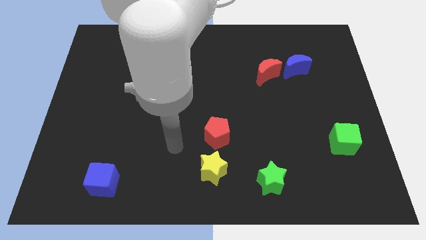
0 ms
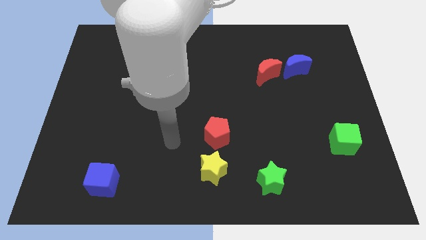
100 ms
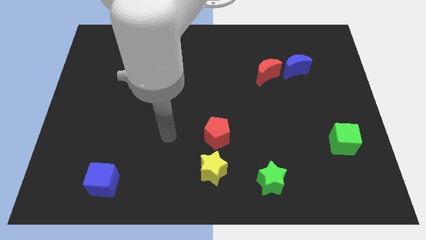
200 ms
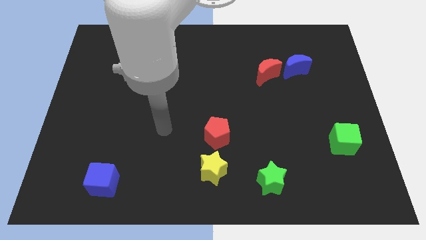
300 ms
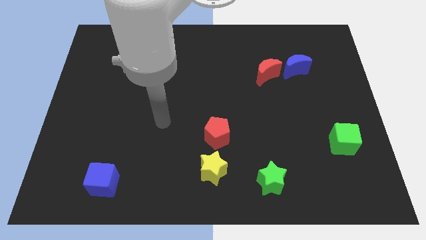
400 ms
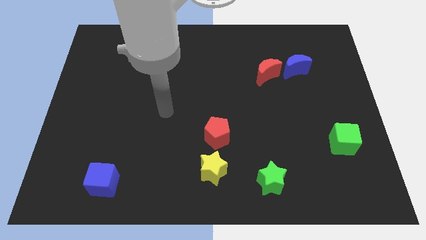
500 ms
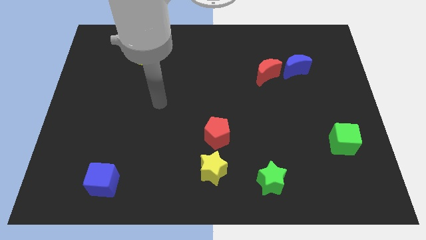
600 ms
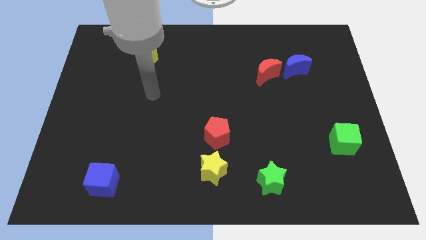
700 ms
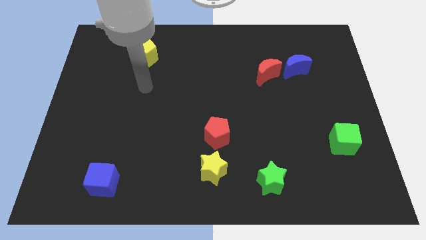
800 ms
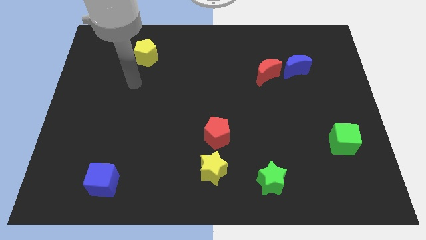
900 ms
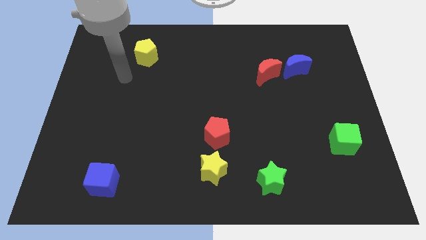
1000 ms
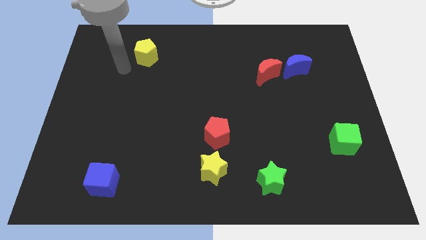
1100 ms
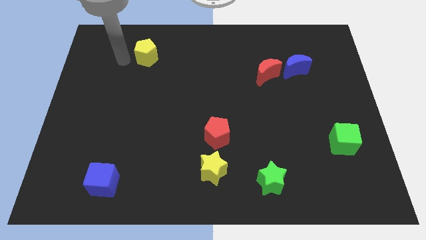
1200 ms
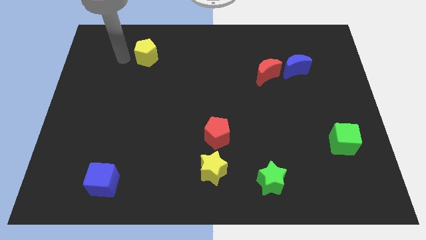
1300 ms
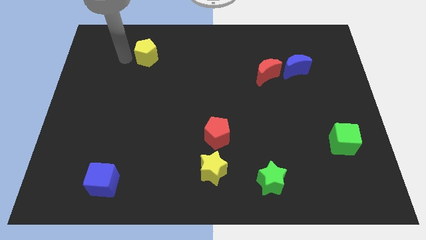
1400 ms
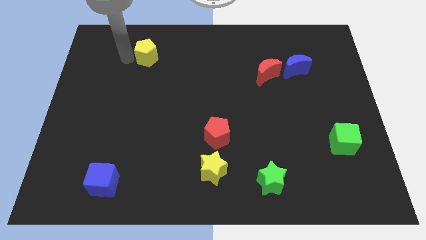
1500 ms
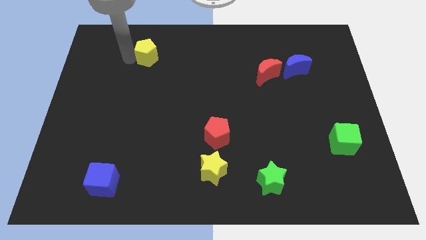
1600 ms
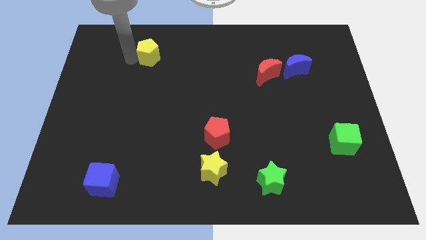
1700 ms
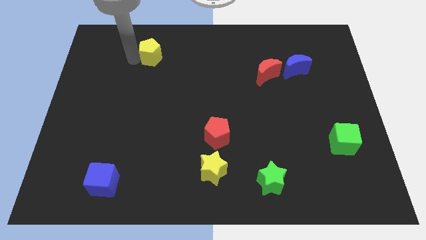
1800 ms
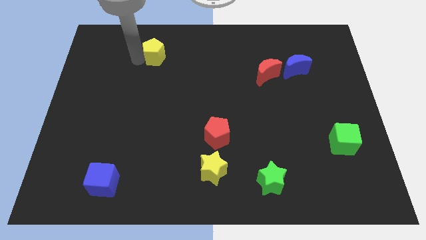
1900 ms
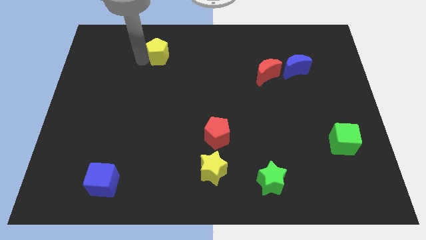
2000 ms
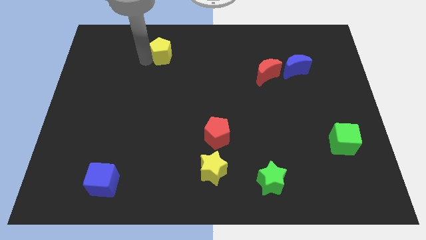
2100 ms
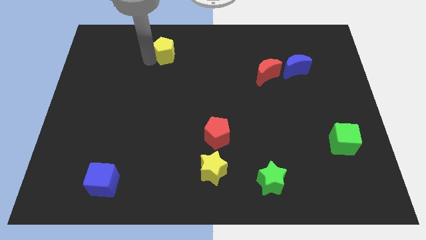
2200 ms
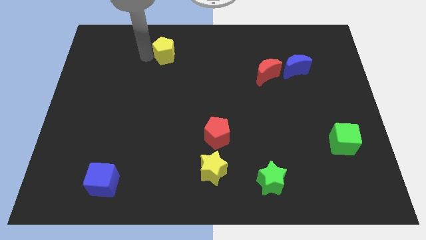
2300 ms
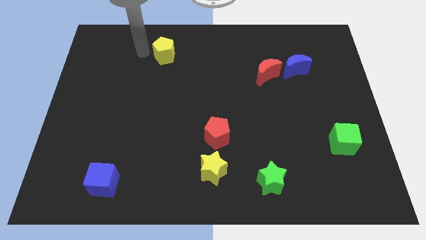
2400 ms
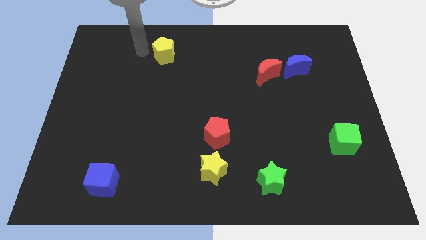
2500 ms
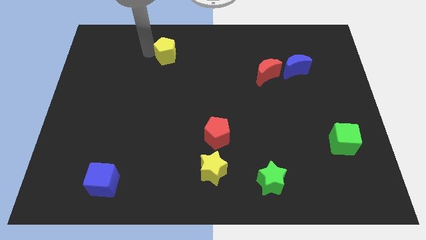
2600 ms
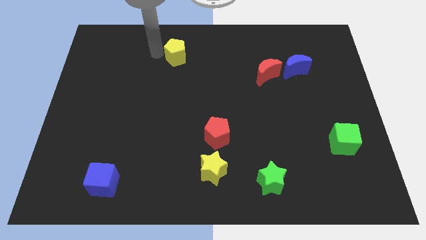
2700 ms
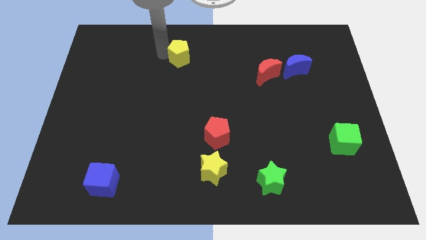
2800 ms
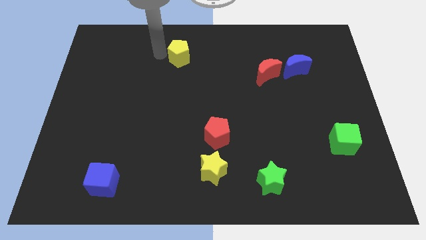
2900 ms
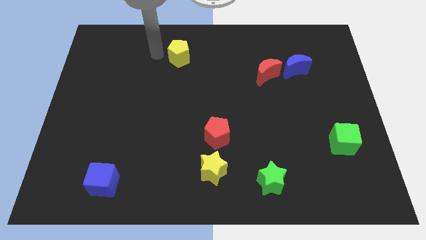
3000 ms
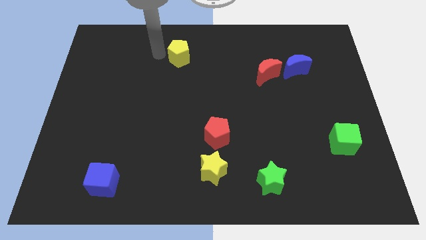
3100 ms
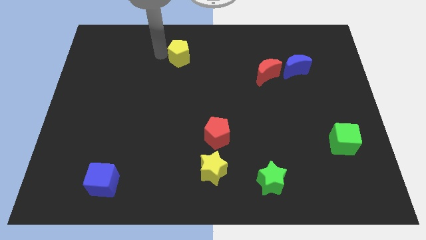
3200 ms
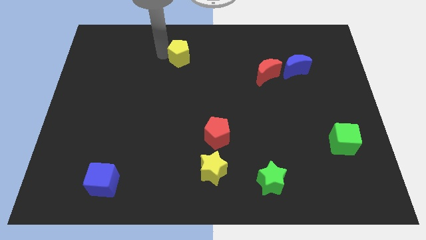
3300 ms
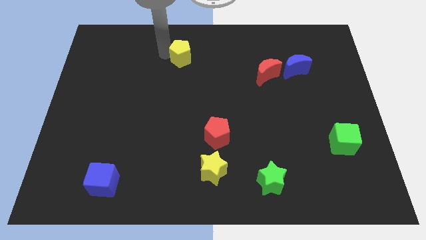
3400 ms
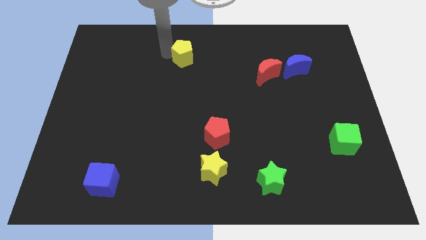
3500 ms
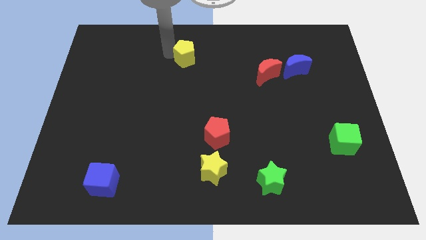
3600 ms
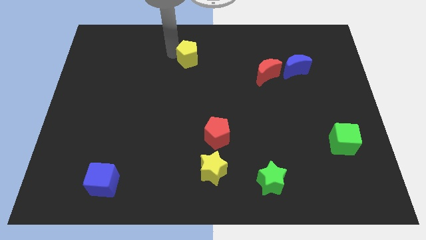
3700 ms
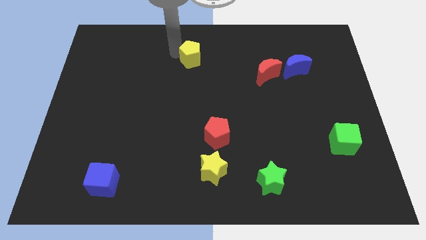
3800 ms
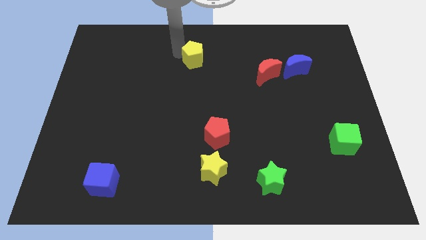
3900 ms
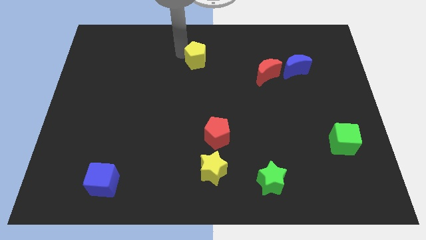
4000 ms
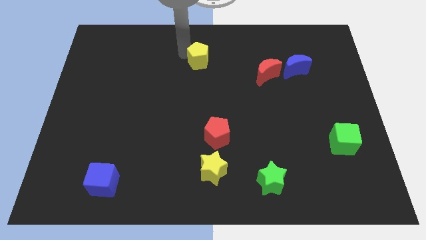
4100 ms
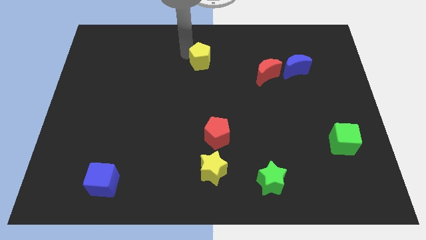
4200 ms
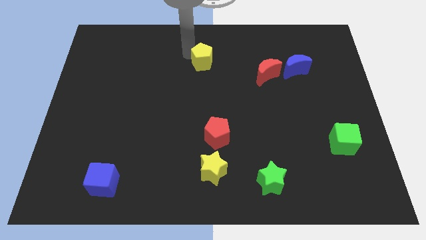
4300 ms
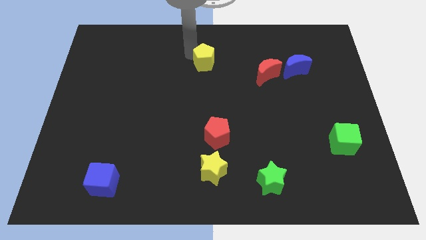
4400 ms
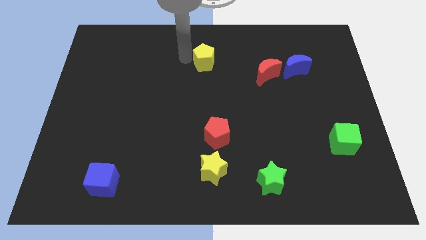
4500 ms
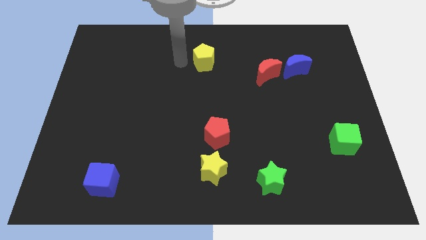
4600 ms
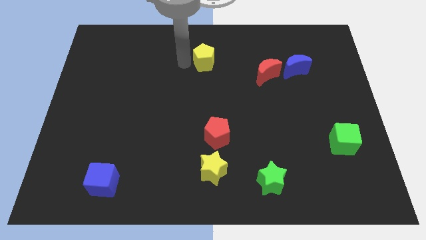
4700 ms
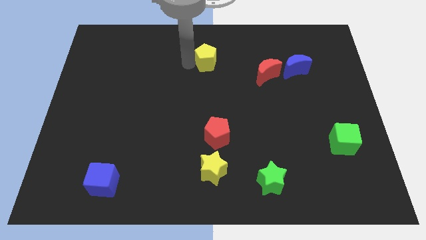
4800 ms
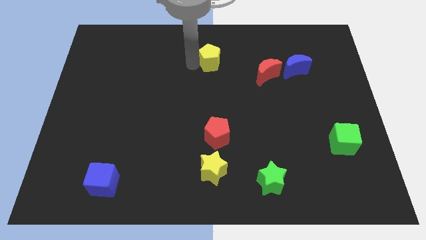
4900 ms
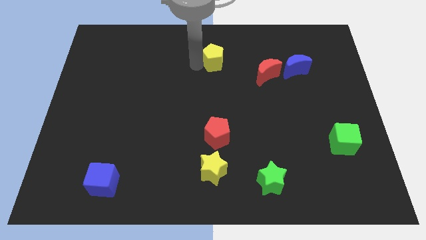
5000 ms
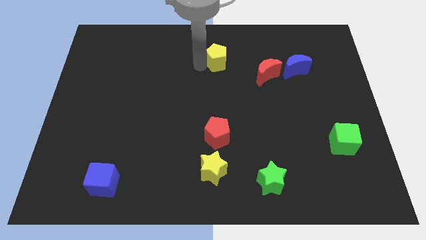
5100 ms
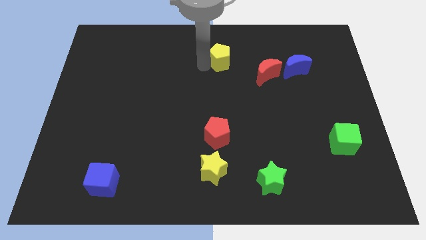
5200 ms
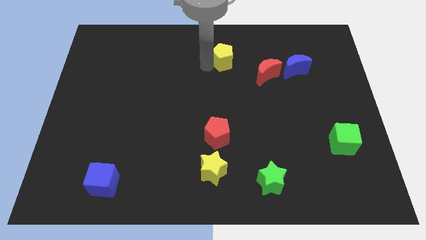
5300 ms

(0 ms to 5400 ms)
move the yellow pentagon right

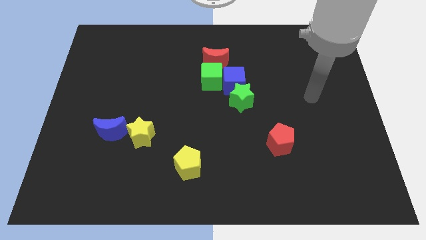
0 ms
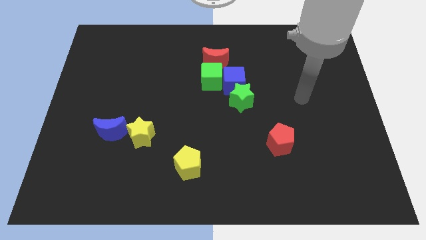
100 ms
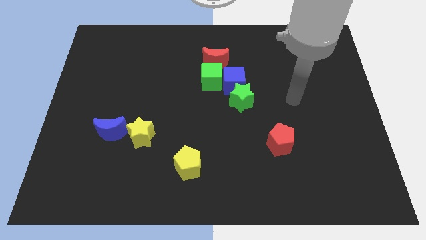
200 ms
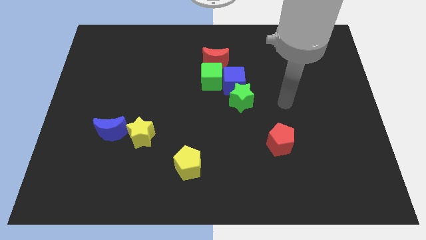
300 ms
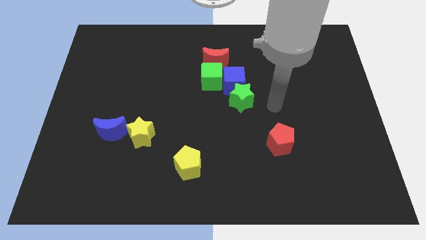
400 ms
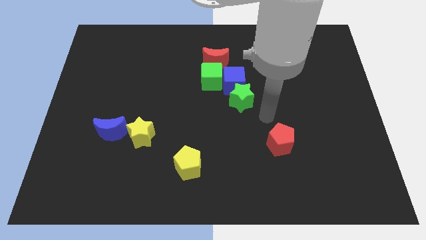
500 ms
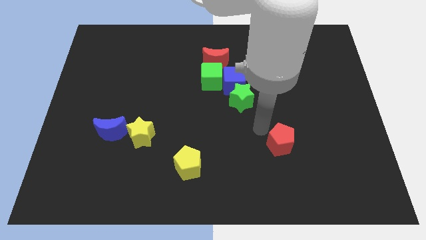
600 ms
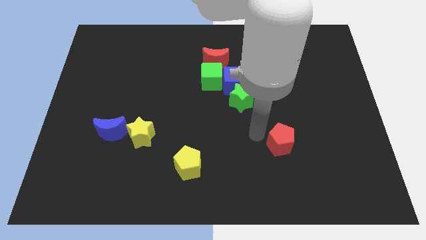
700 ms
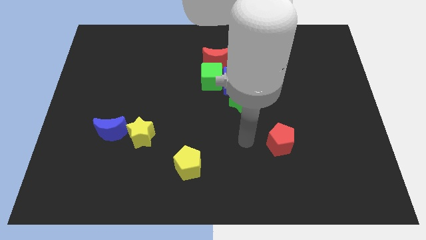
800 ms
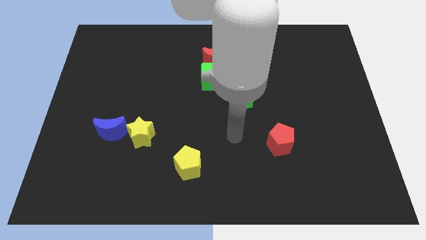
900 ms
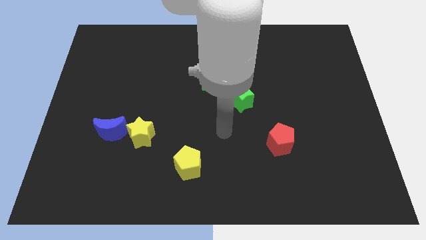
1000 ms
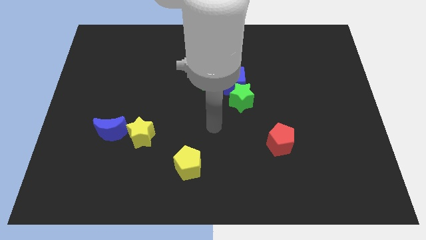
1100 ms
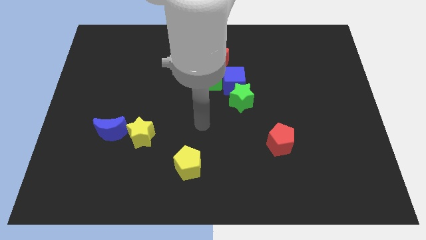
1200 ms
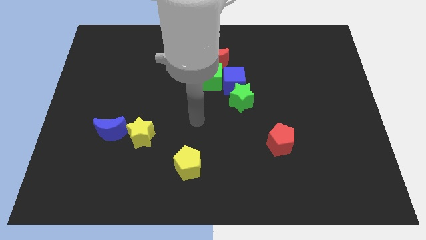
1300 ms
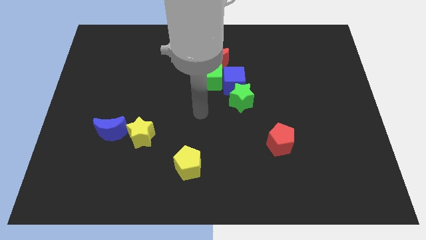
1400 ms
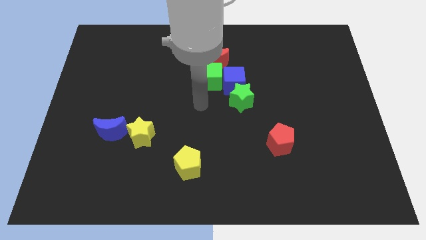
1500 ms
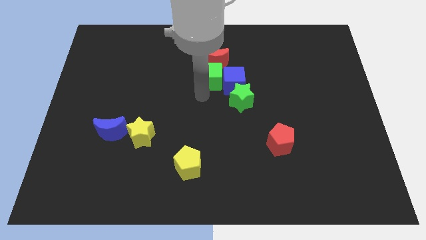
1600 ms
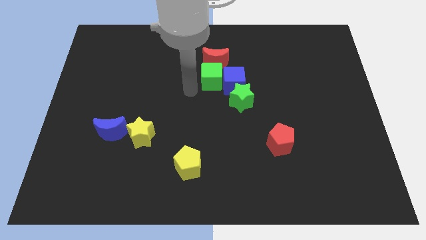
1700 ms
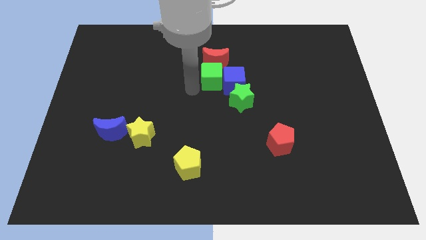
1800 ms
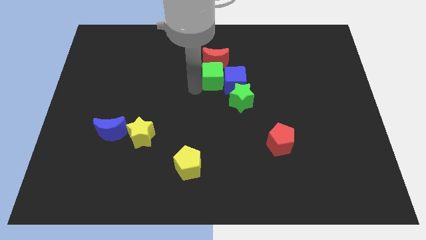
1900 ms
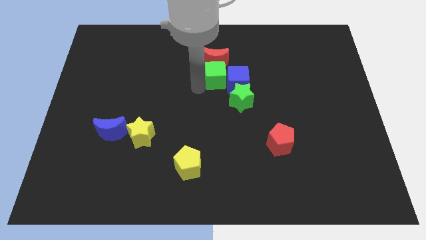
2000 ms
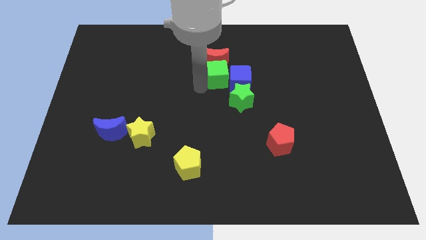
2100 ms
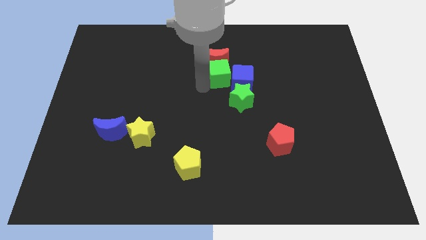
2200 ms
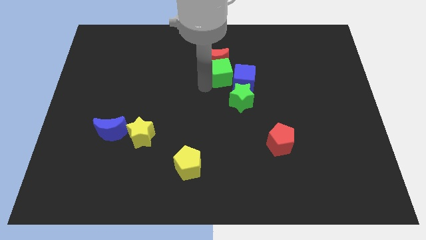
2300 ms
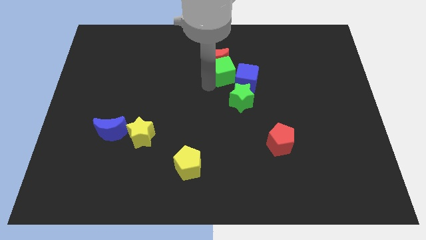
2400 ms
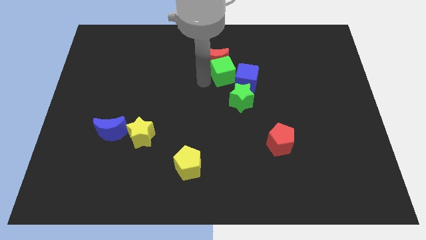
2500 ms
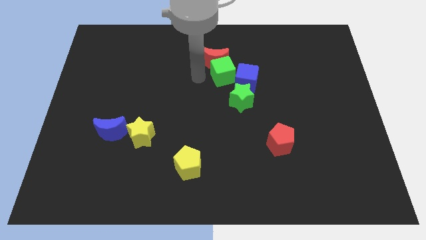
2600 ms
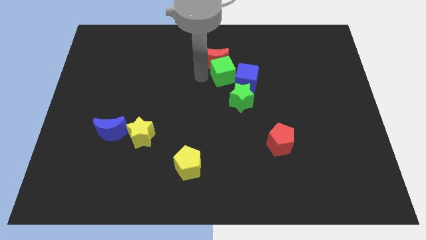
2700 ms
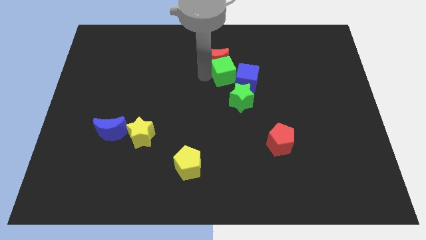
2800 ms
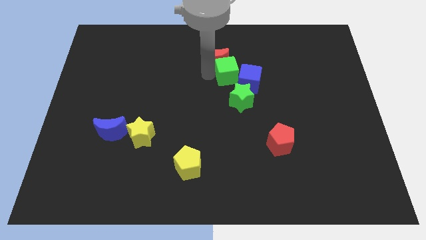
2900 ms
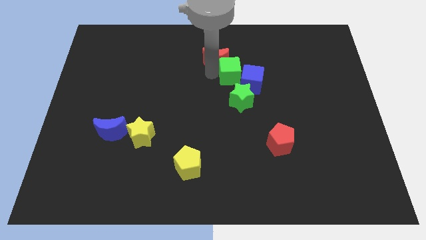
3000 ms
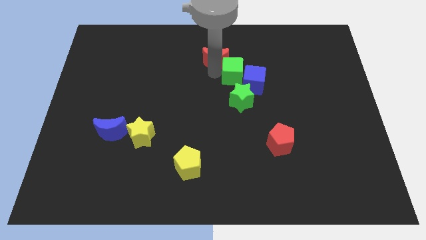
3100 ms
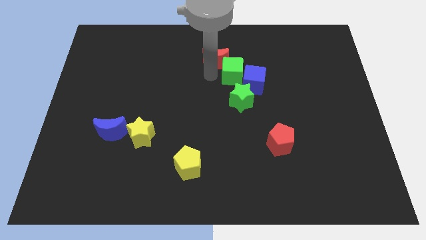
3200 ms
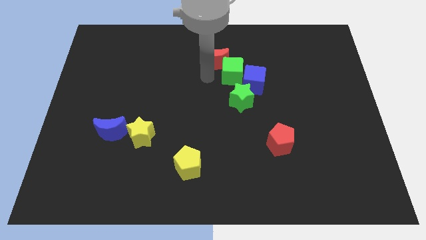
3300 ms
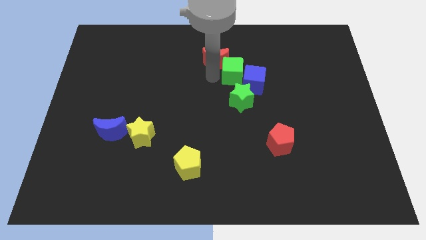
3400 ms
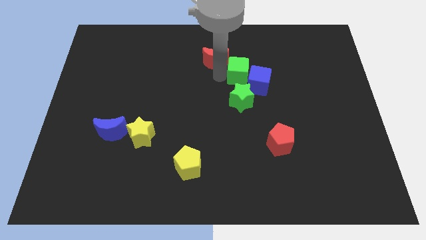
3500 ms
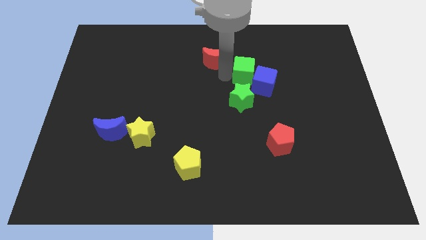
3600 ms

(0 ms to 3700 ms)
slightly push the green cube right
